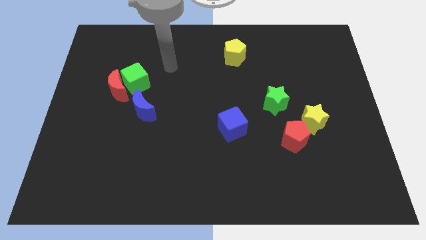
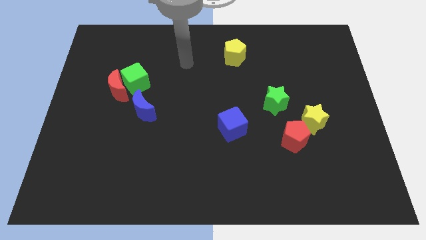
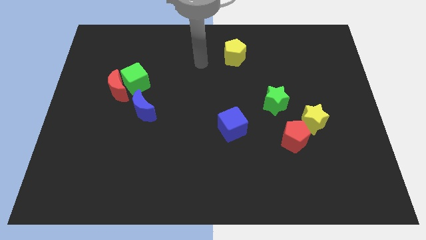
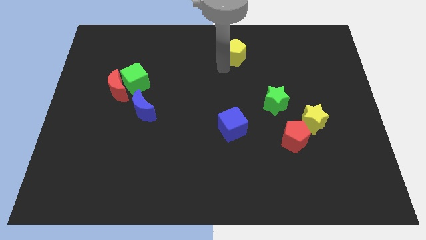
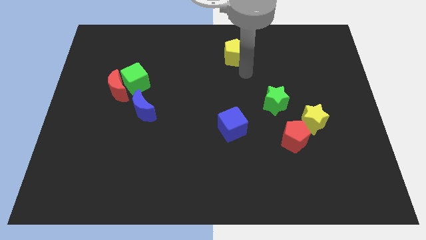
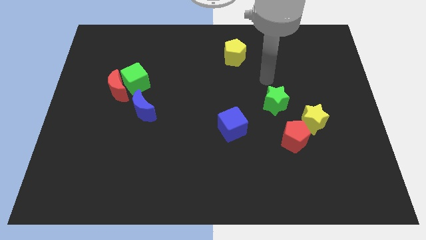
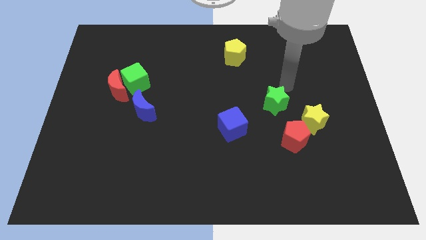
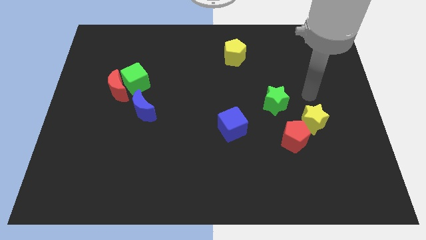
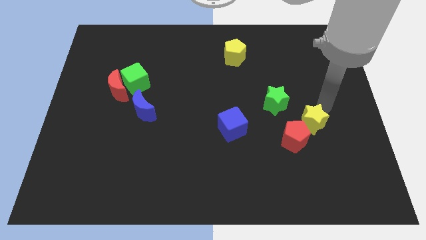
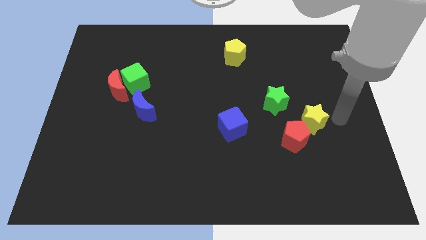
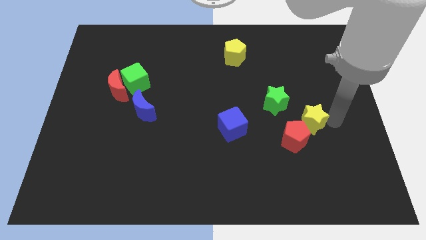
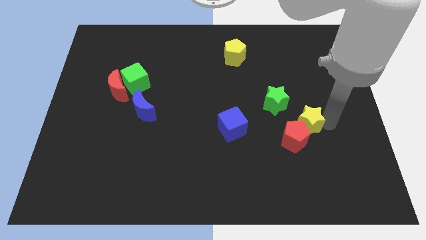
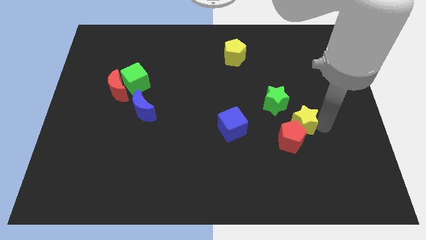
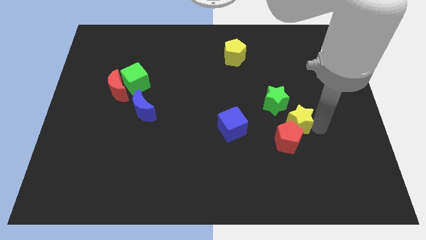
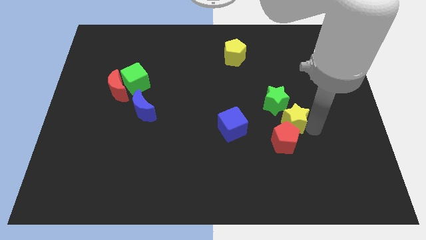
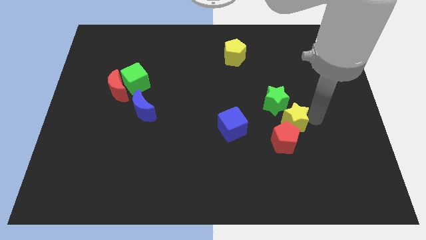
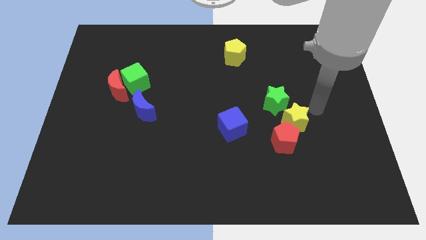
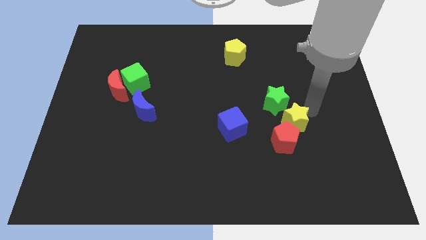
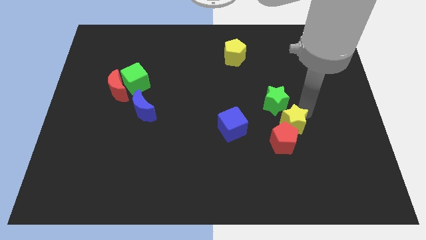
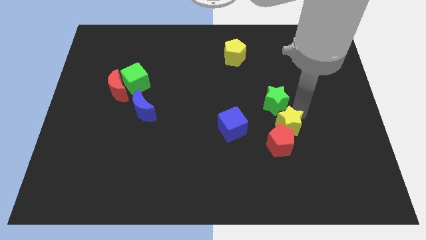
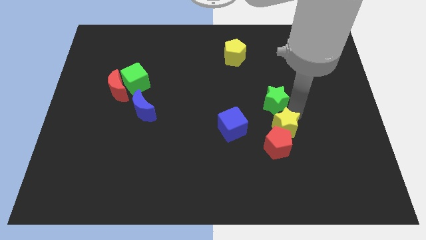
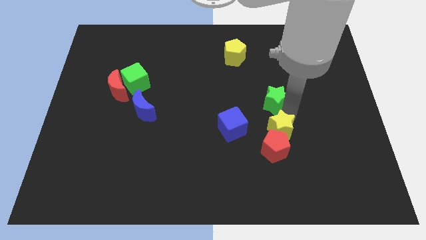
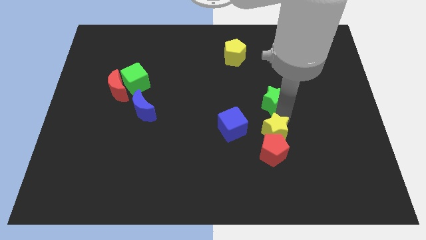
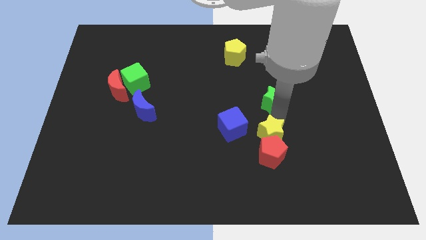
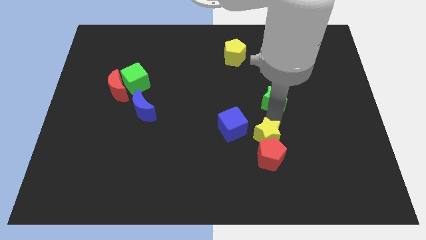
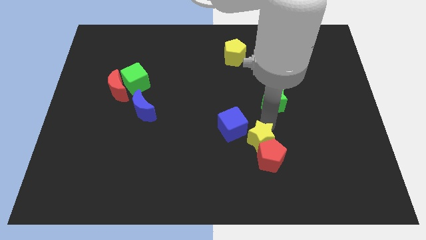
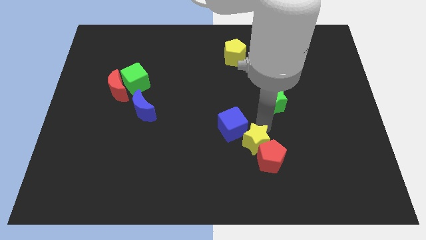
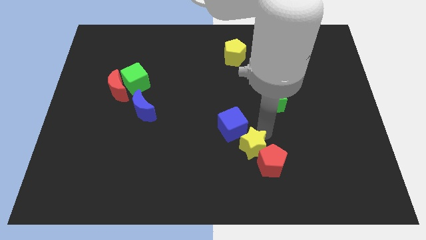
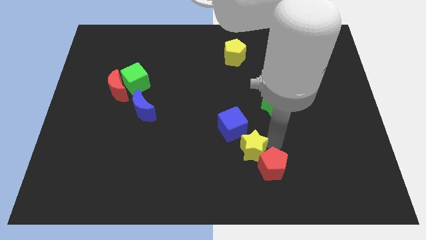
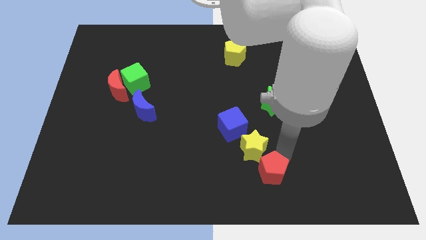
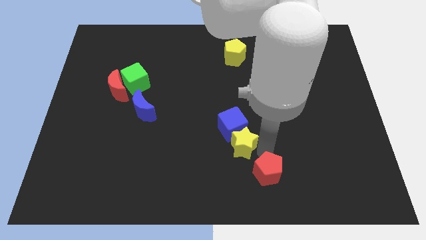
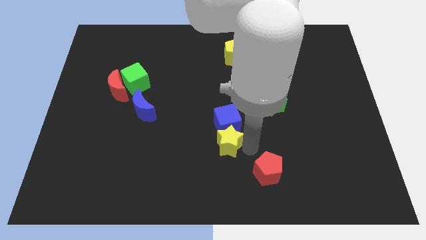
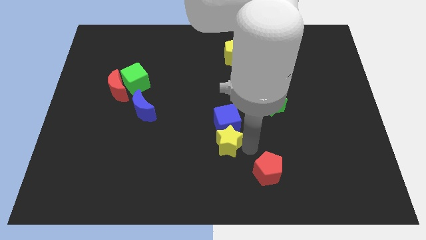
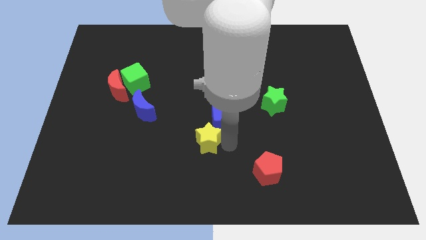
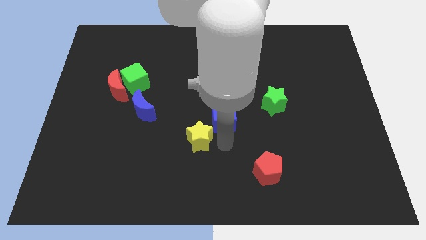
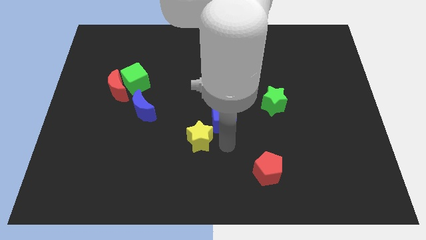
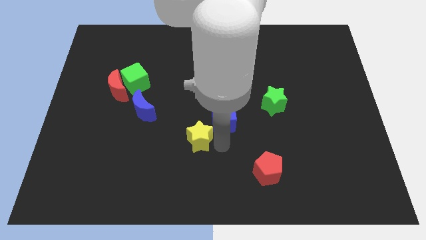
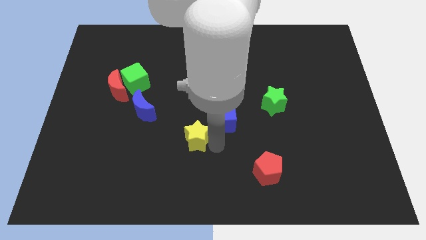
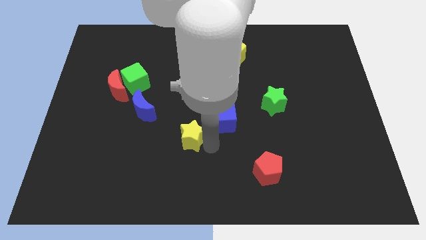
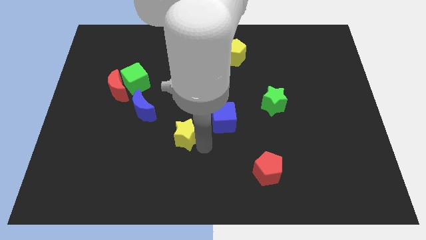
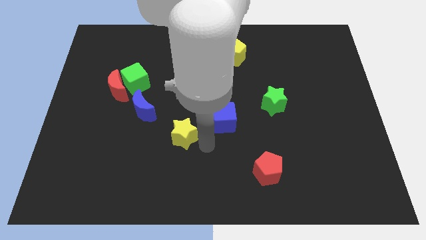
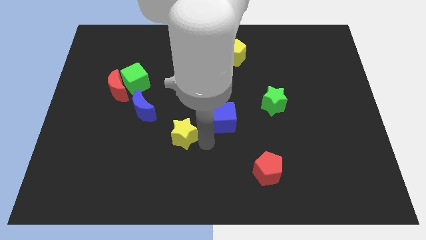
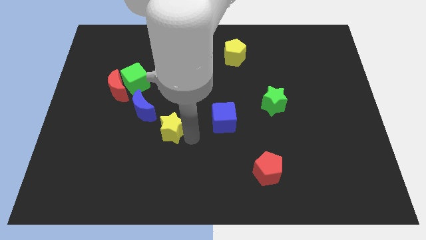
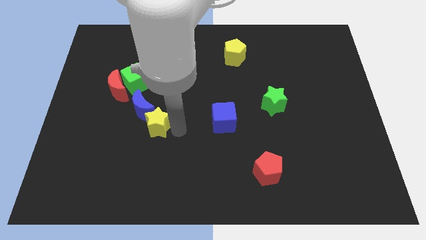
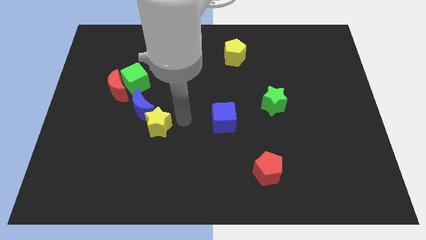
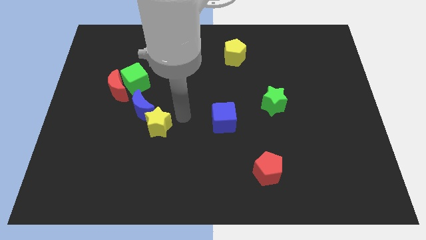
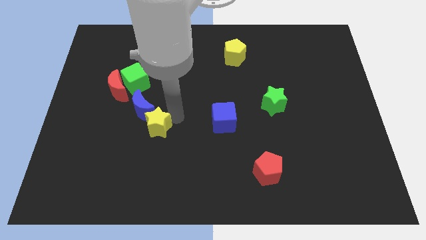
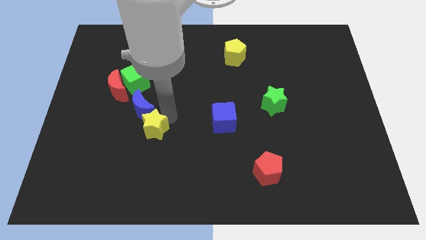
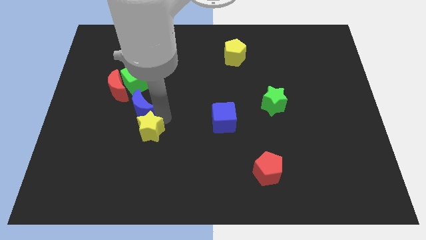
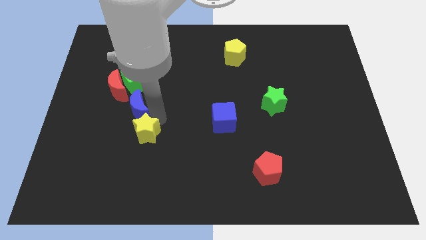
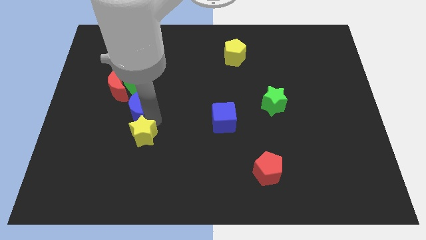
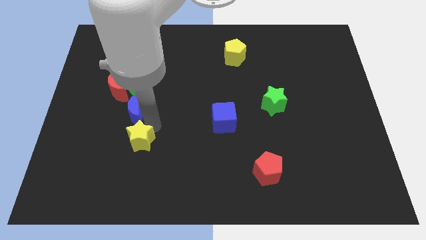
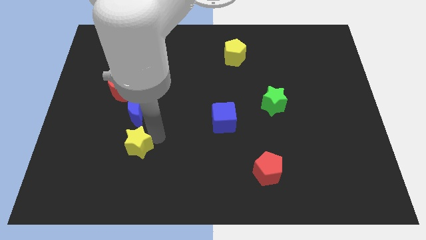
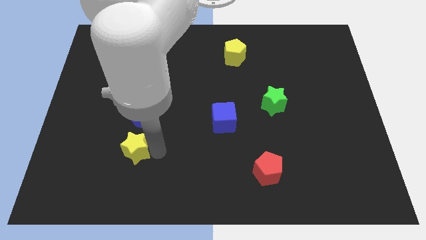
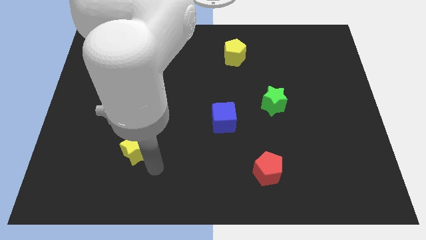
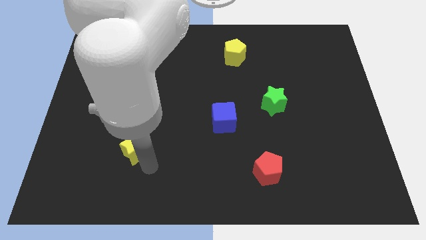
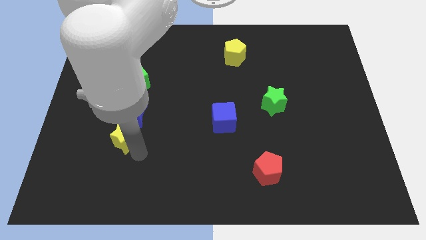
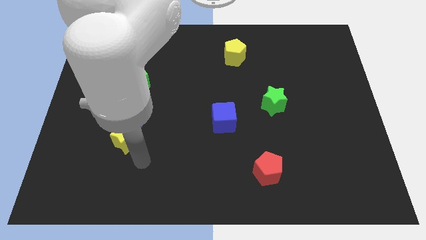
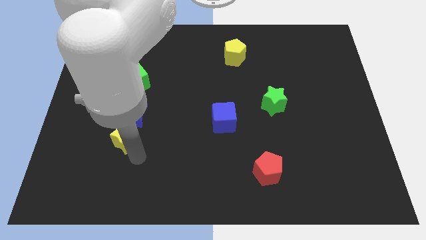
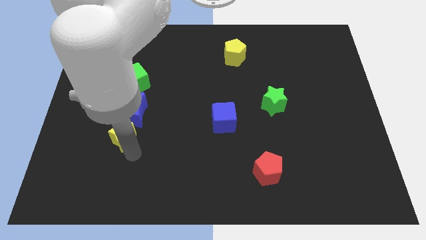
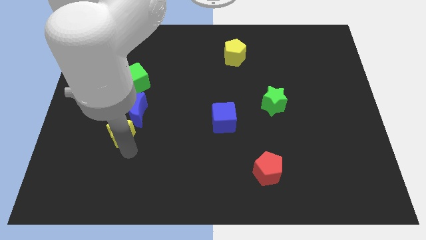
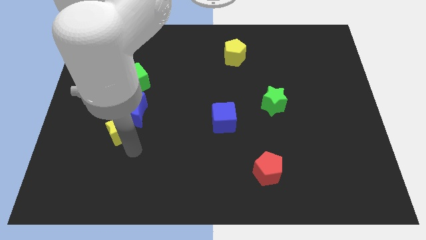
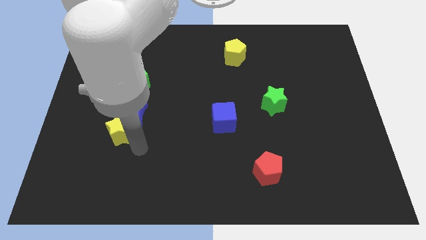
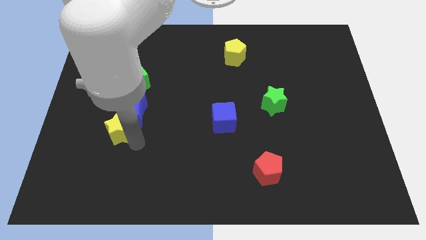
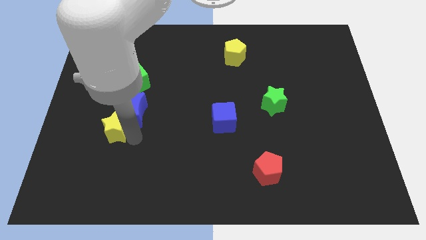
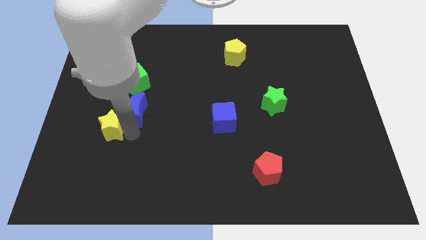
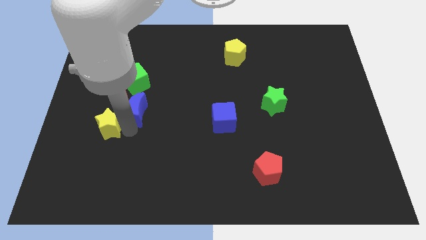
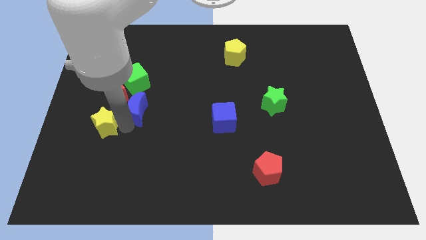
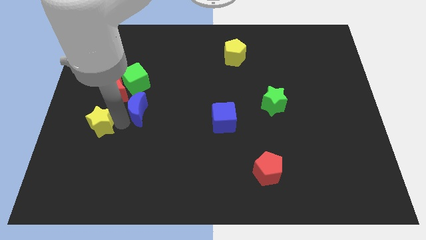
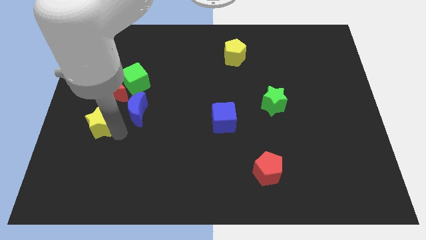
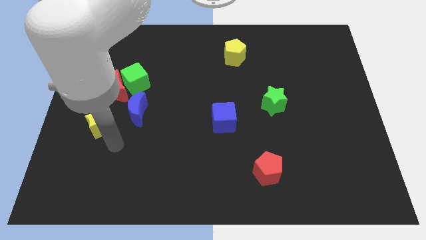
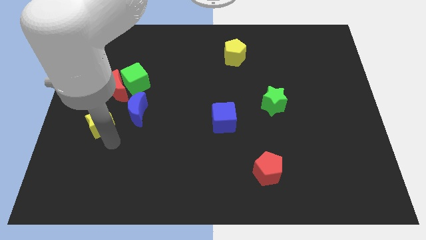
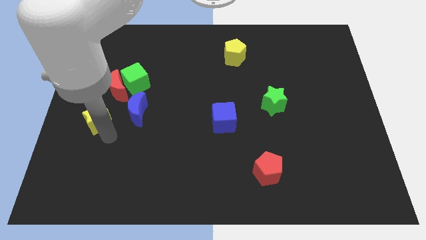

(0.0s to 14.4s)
slide the yellow star to the bottom left side of the red moon

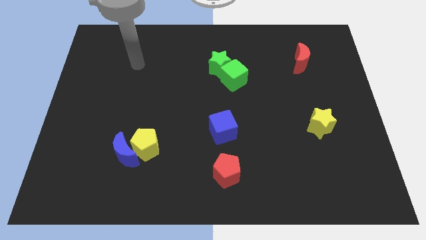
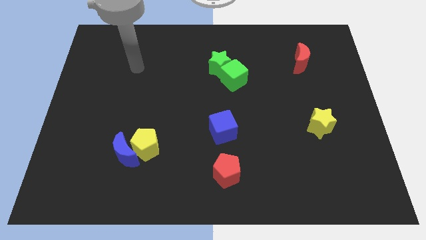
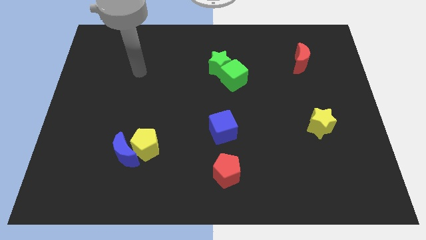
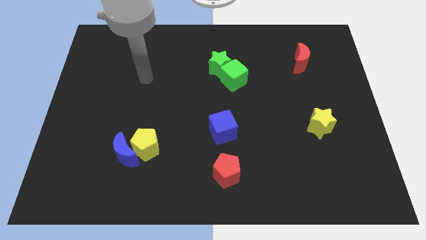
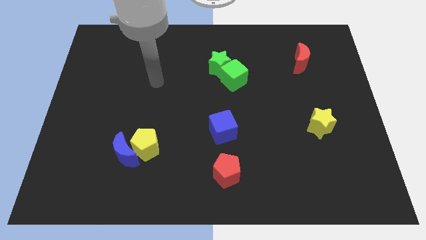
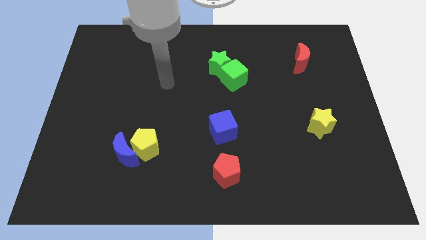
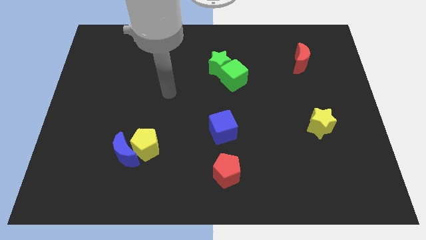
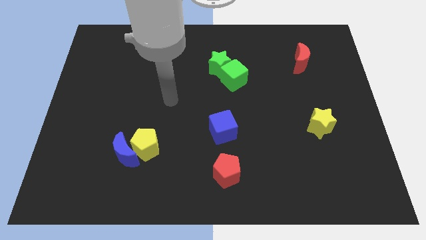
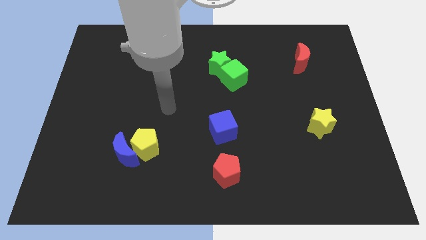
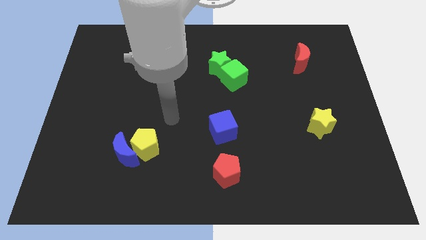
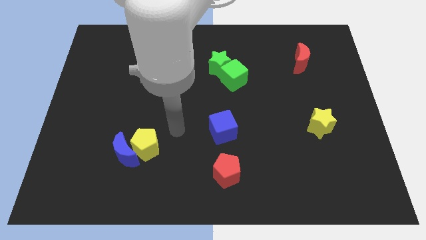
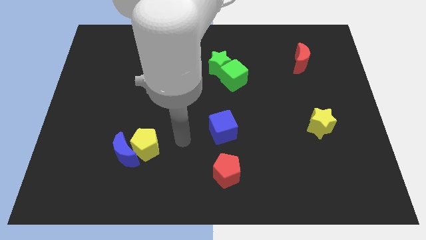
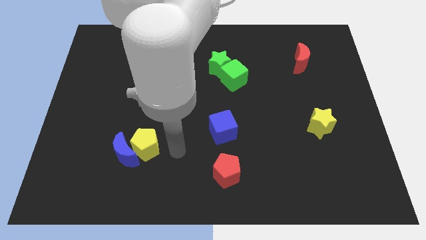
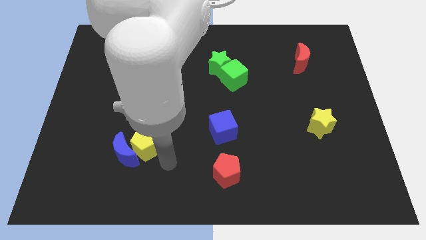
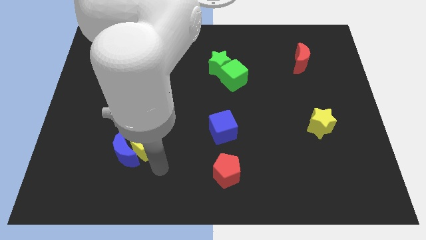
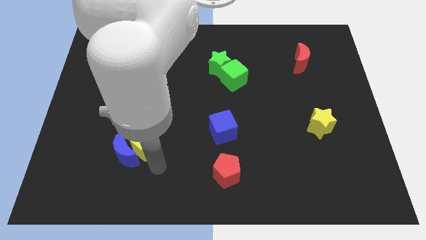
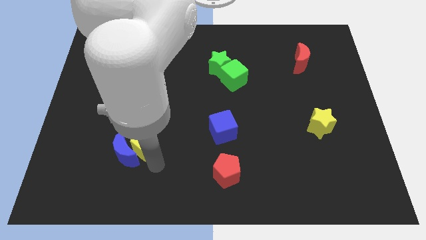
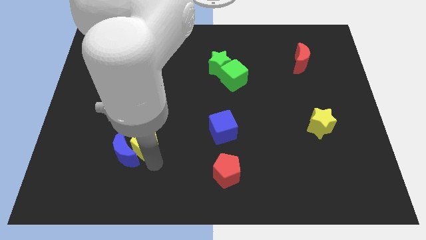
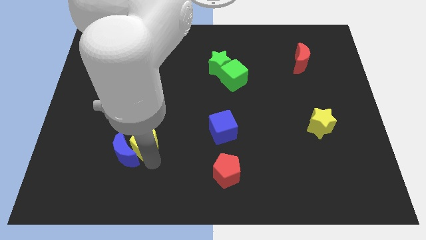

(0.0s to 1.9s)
push the yellow pentagon to the top side of the blue moon
